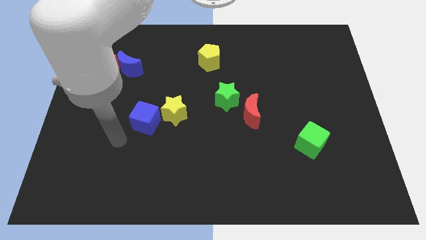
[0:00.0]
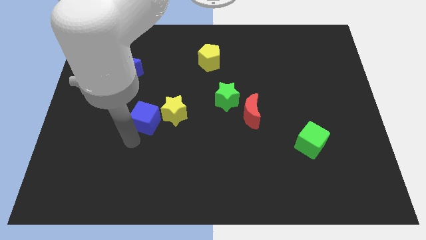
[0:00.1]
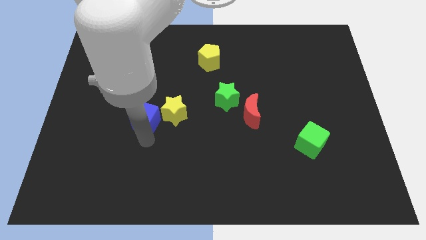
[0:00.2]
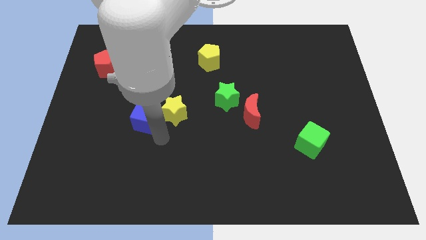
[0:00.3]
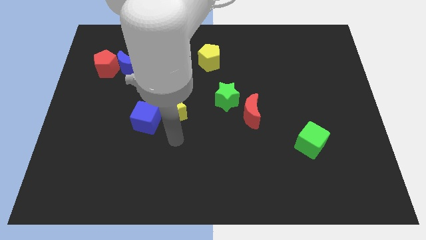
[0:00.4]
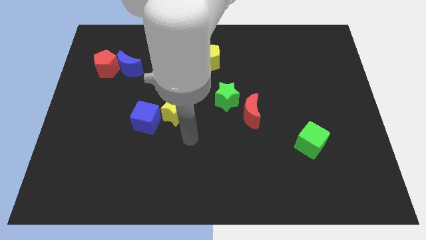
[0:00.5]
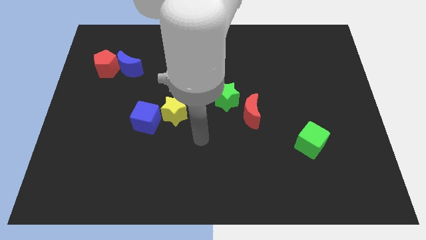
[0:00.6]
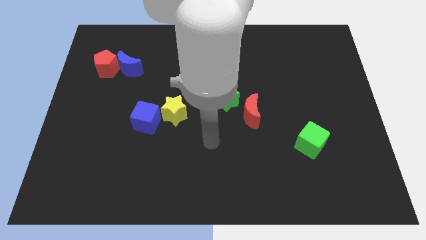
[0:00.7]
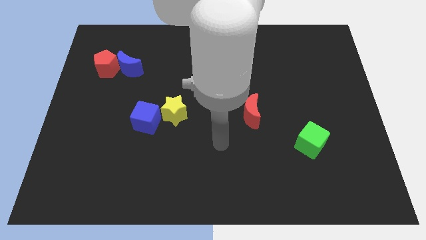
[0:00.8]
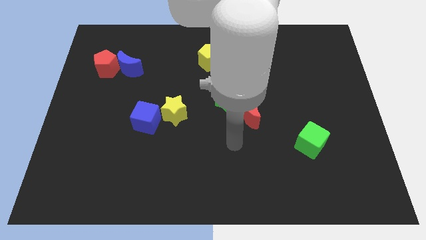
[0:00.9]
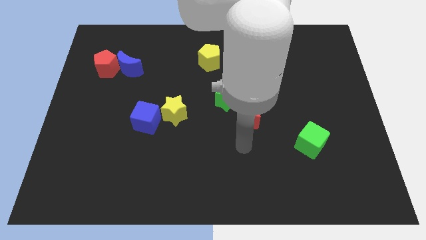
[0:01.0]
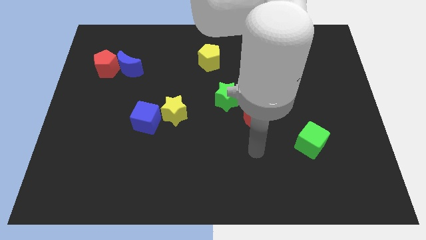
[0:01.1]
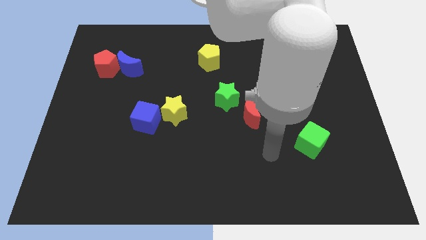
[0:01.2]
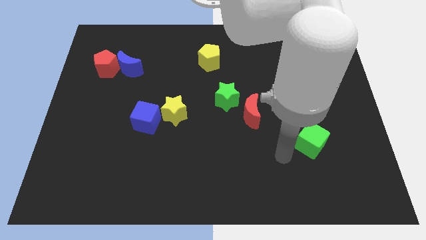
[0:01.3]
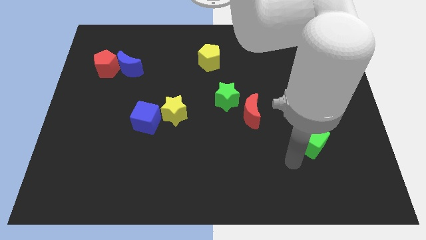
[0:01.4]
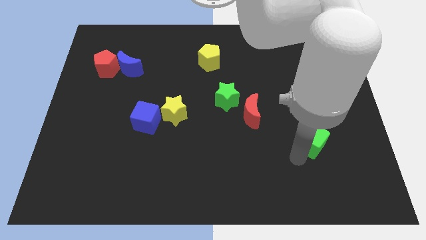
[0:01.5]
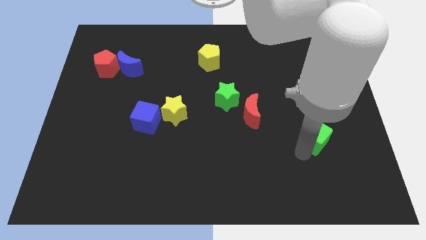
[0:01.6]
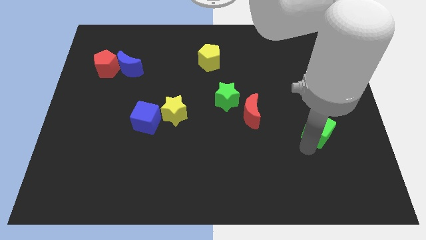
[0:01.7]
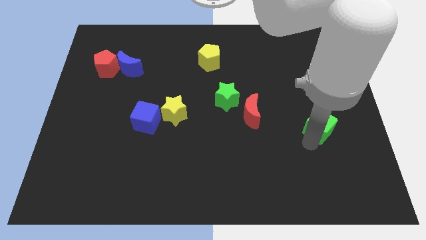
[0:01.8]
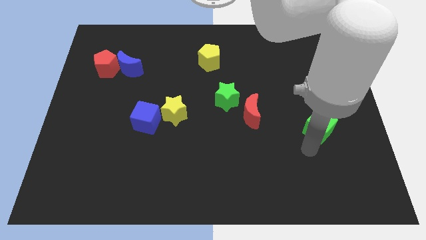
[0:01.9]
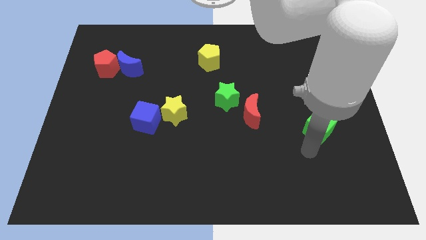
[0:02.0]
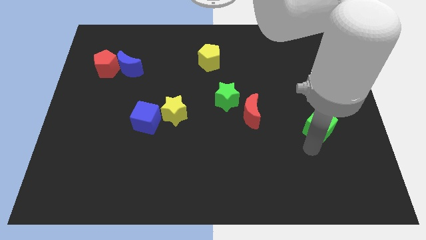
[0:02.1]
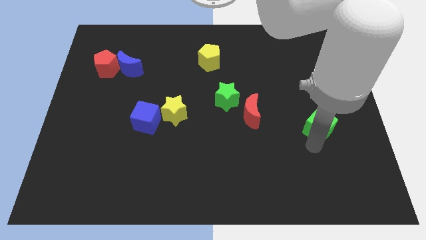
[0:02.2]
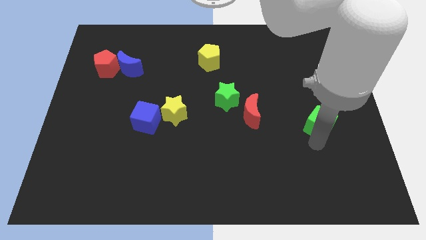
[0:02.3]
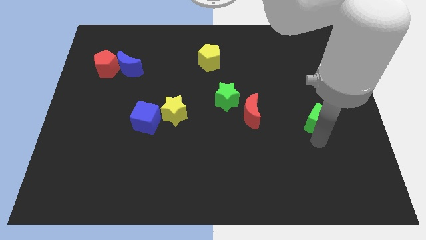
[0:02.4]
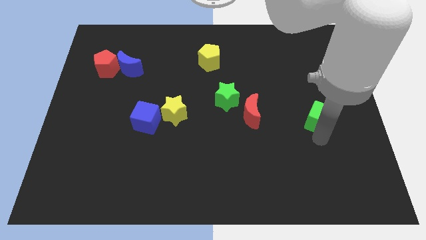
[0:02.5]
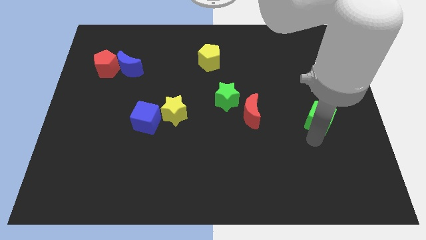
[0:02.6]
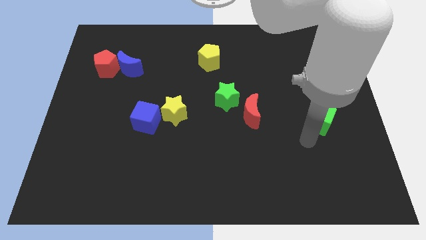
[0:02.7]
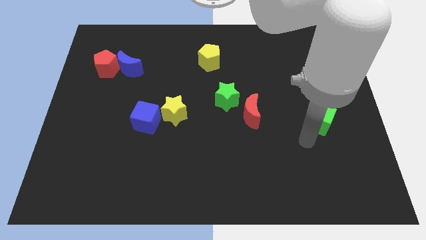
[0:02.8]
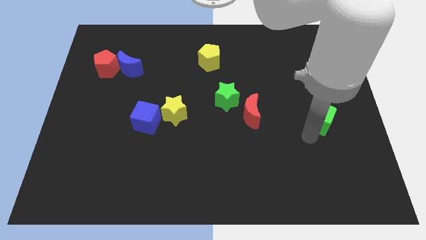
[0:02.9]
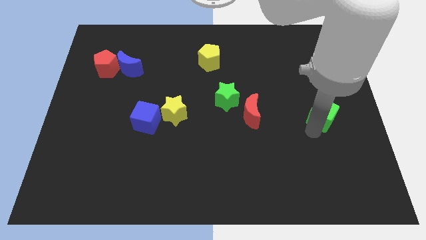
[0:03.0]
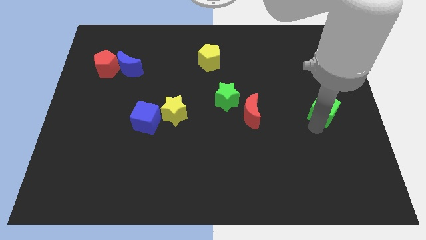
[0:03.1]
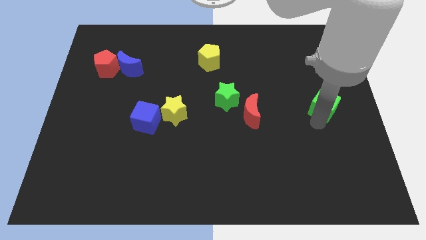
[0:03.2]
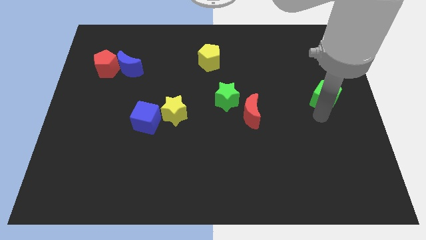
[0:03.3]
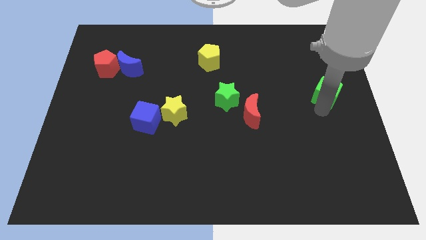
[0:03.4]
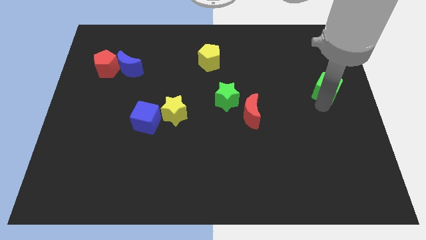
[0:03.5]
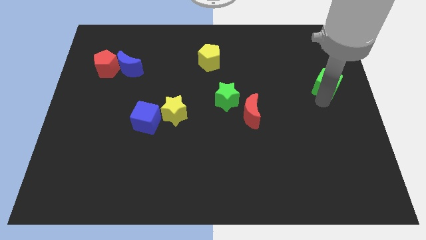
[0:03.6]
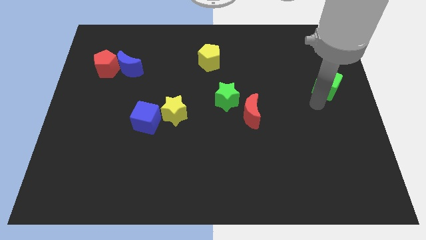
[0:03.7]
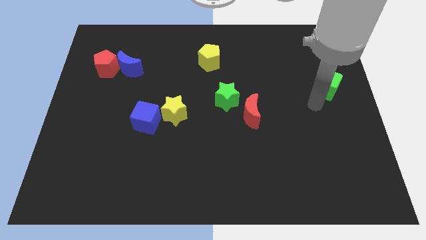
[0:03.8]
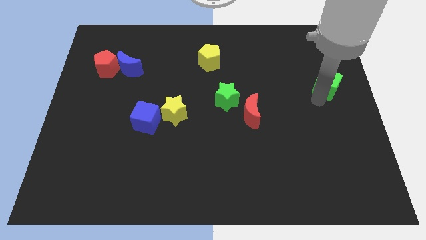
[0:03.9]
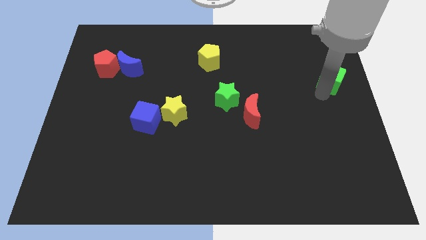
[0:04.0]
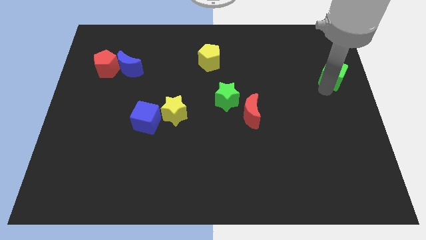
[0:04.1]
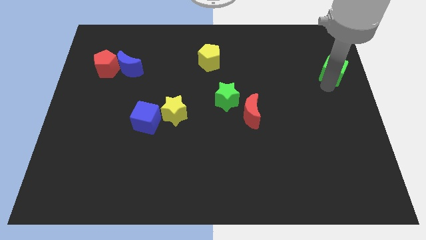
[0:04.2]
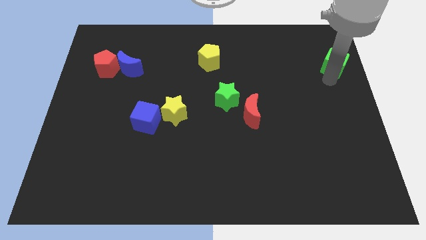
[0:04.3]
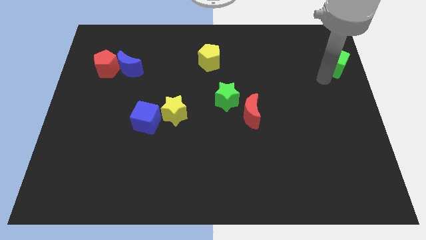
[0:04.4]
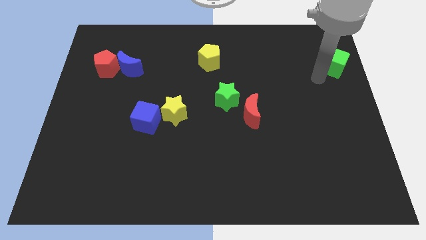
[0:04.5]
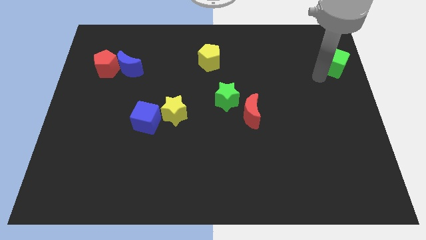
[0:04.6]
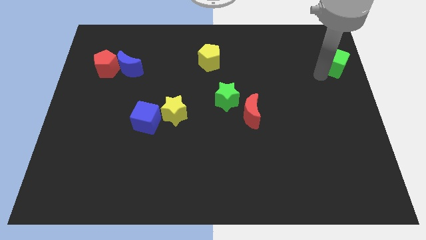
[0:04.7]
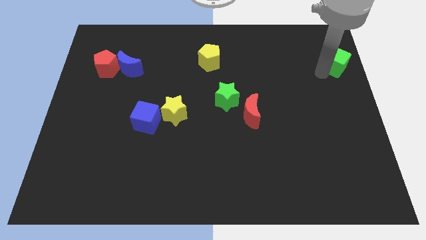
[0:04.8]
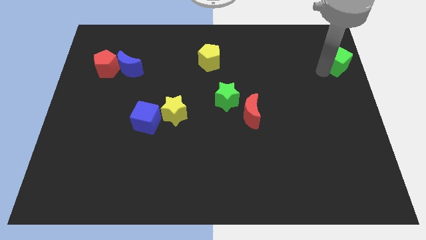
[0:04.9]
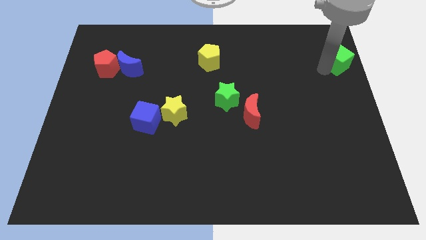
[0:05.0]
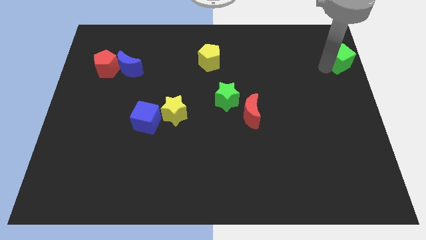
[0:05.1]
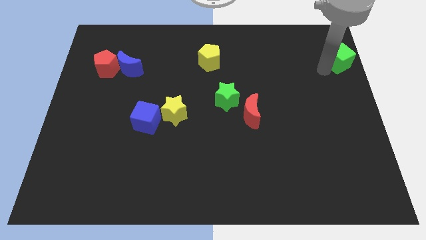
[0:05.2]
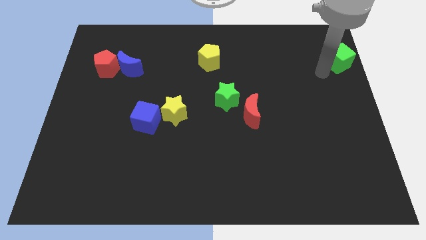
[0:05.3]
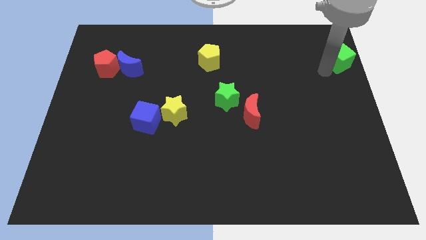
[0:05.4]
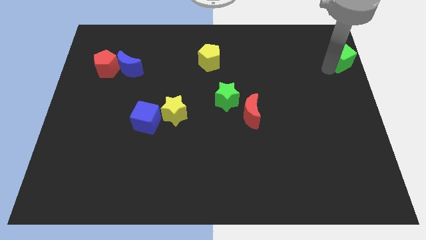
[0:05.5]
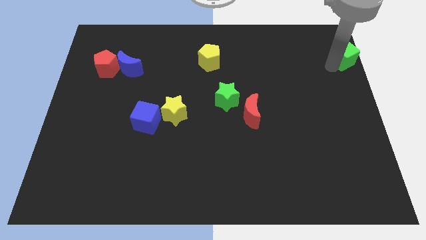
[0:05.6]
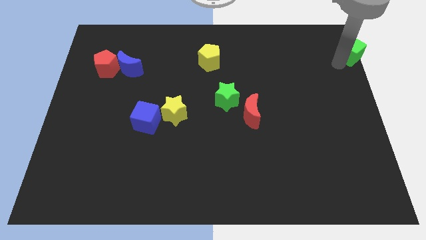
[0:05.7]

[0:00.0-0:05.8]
move the green cube to the top right

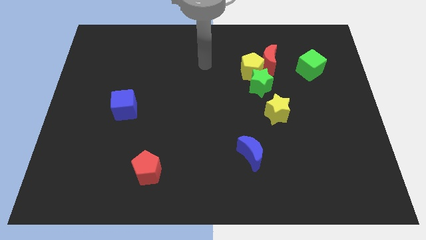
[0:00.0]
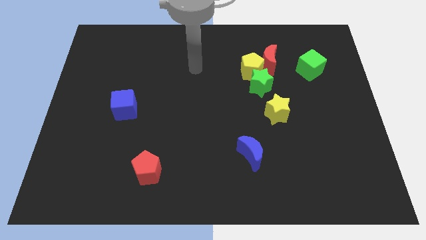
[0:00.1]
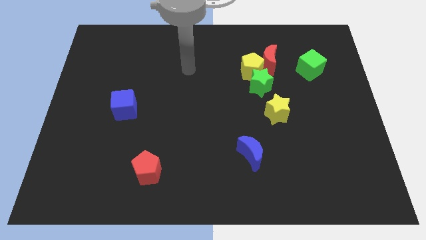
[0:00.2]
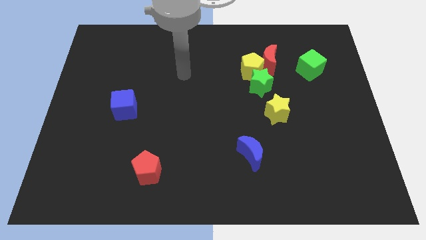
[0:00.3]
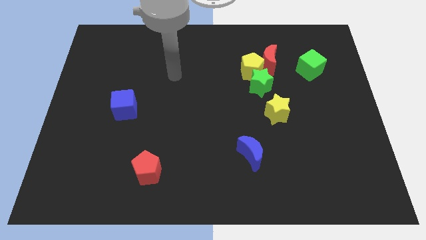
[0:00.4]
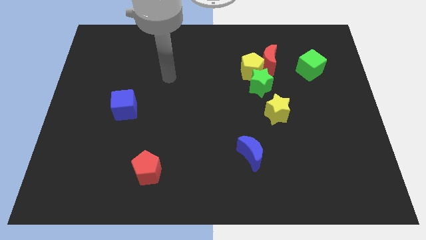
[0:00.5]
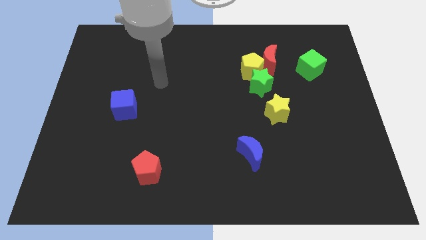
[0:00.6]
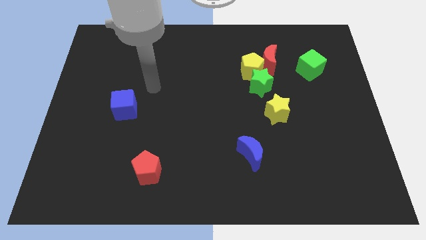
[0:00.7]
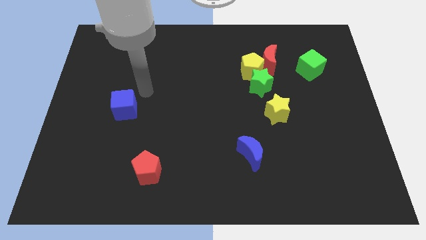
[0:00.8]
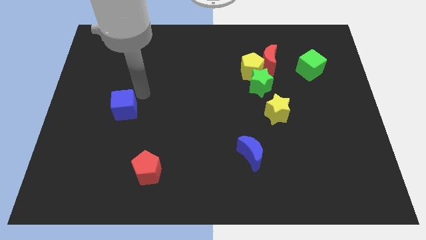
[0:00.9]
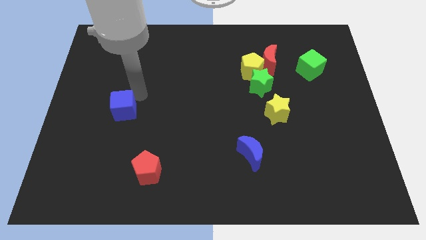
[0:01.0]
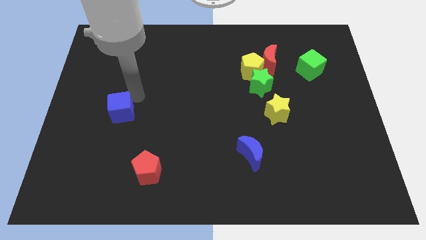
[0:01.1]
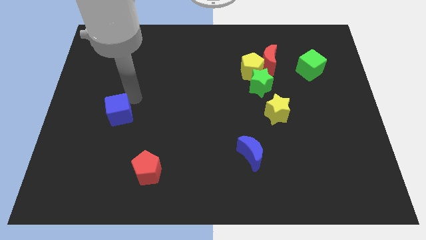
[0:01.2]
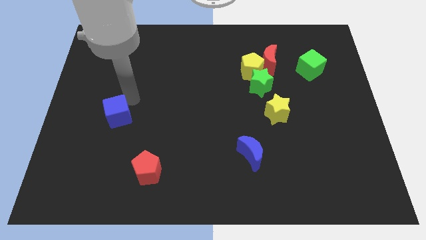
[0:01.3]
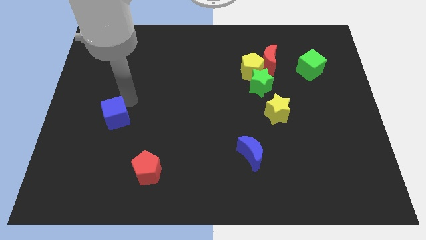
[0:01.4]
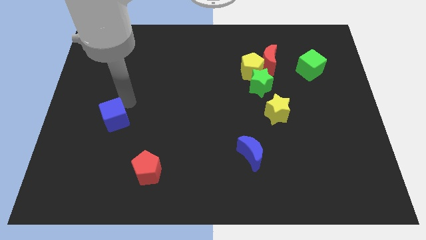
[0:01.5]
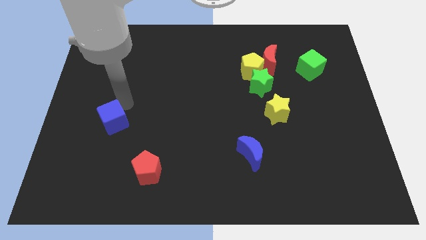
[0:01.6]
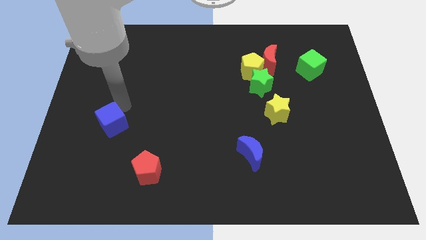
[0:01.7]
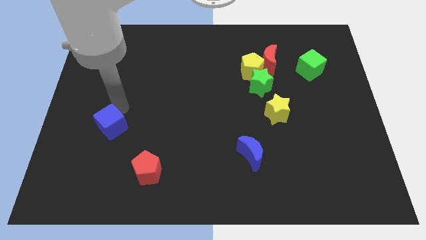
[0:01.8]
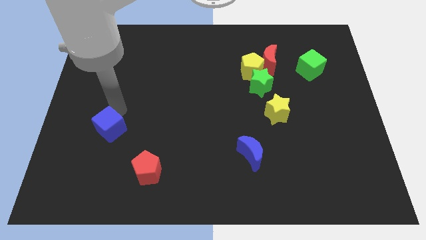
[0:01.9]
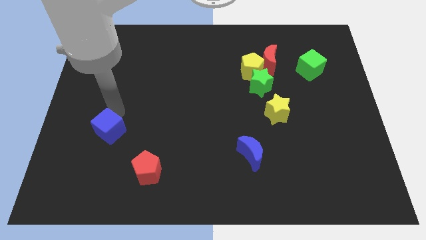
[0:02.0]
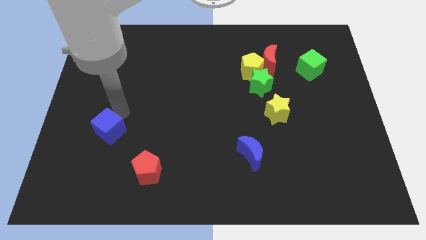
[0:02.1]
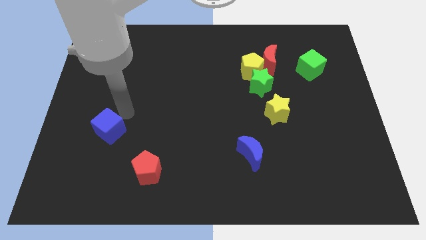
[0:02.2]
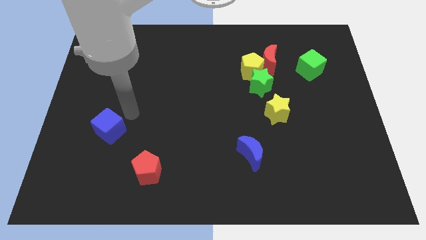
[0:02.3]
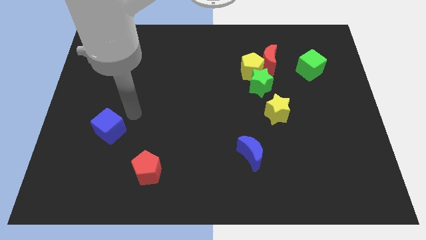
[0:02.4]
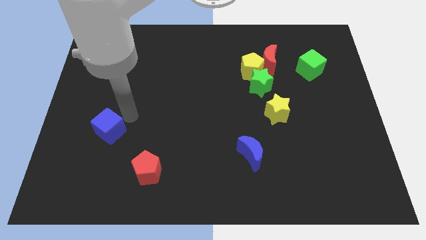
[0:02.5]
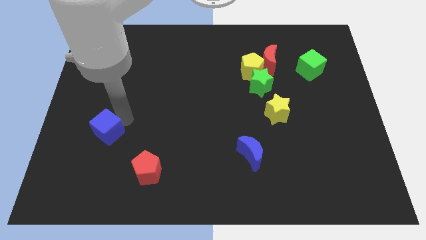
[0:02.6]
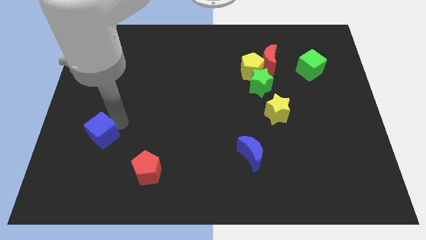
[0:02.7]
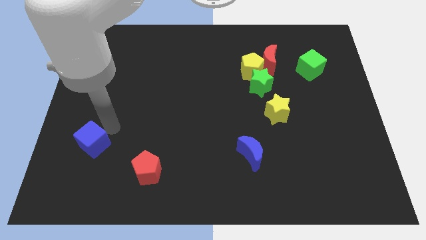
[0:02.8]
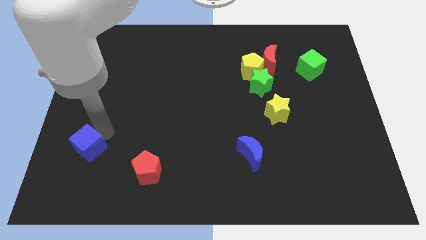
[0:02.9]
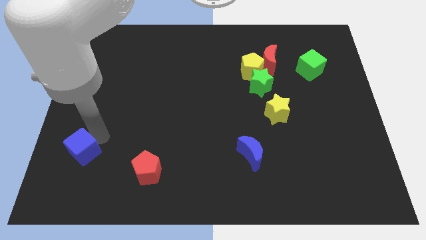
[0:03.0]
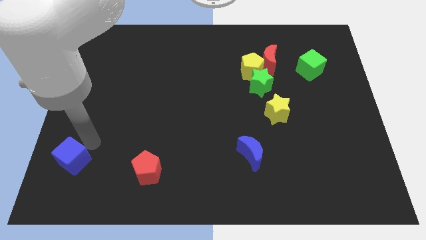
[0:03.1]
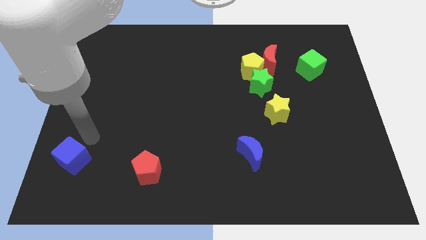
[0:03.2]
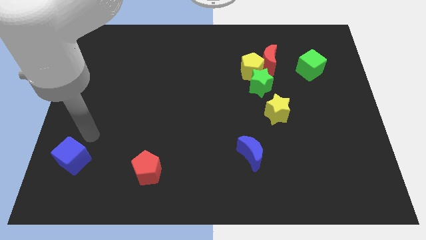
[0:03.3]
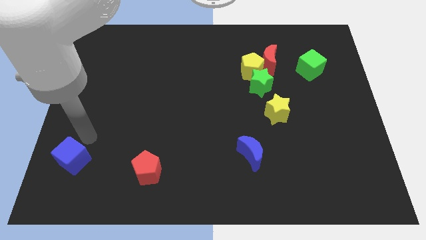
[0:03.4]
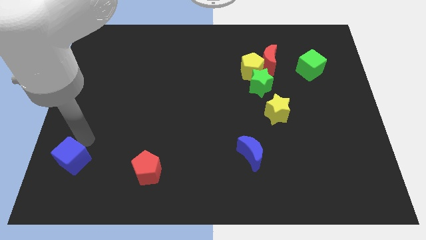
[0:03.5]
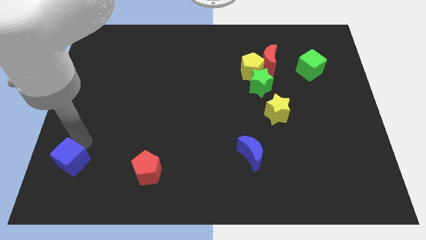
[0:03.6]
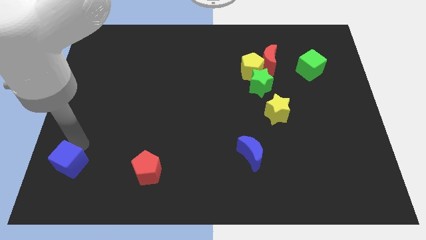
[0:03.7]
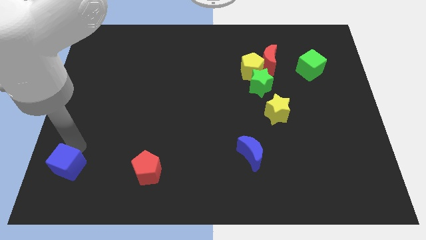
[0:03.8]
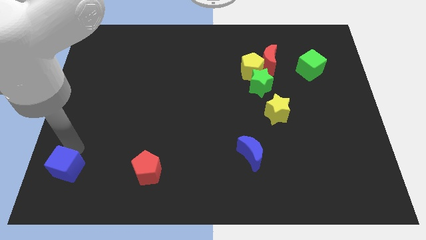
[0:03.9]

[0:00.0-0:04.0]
put the blue cube to the lower left corner
